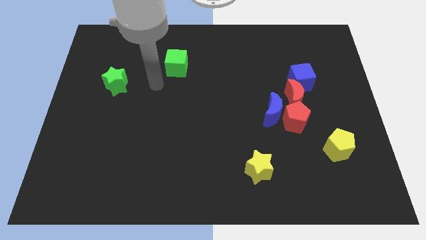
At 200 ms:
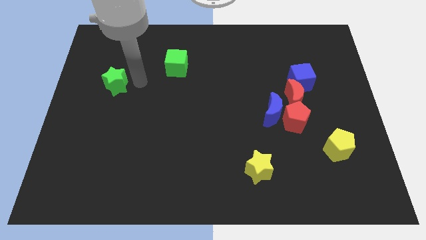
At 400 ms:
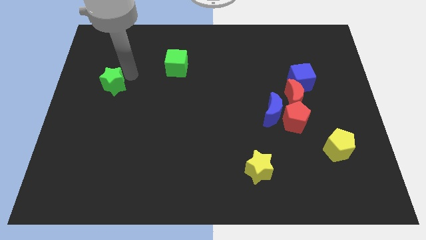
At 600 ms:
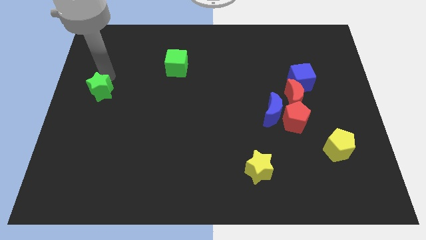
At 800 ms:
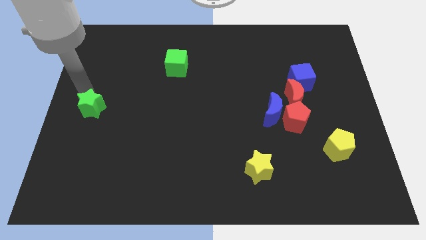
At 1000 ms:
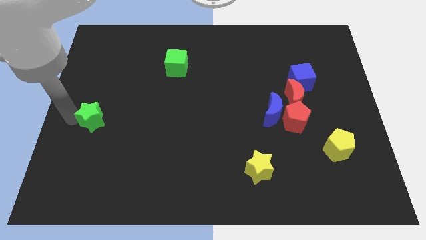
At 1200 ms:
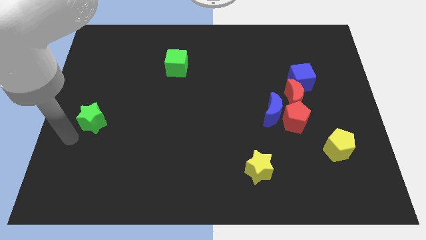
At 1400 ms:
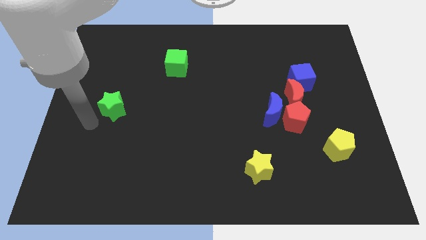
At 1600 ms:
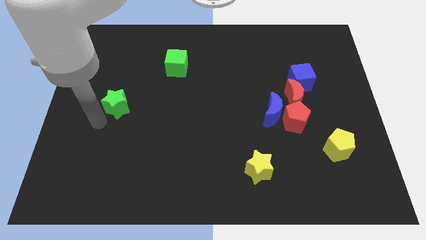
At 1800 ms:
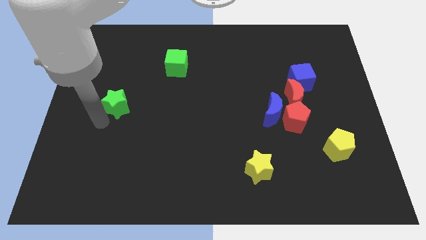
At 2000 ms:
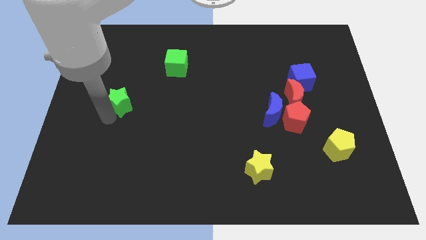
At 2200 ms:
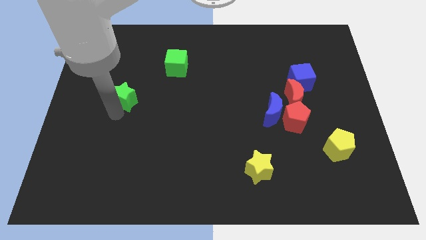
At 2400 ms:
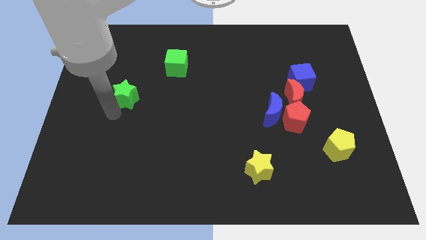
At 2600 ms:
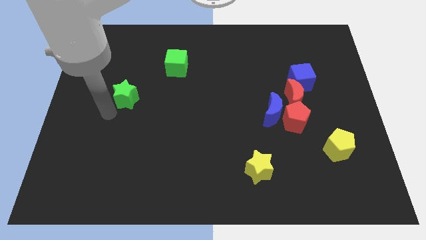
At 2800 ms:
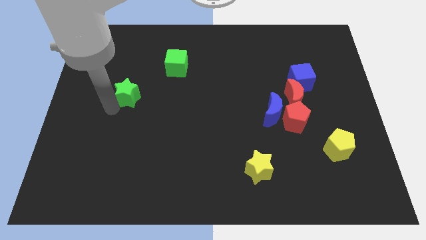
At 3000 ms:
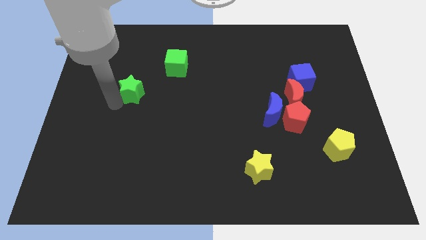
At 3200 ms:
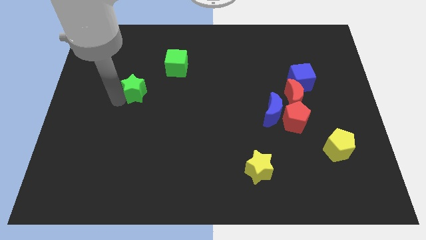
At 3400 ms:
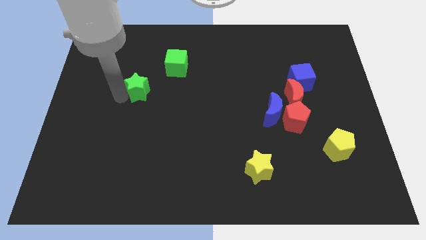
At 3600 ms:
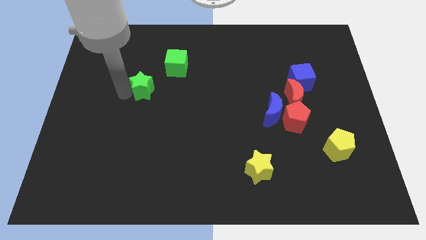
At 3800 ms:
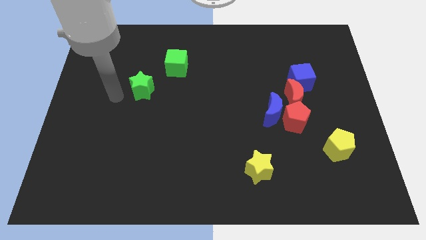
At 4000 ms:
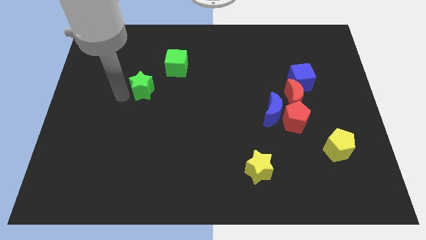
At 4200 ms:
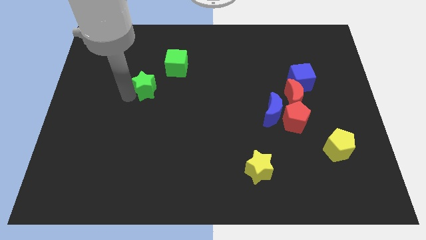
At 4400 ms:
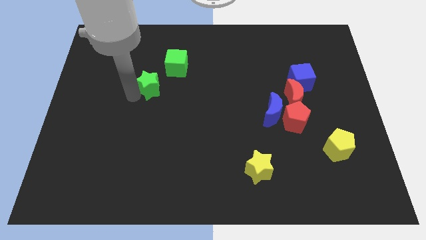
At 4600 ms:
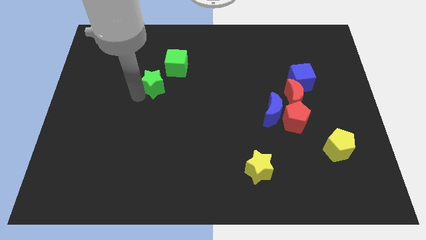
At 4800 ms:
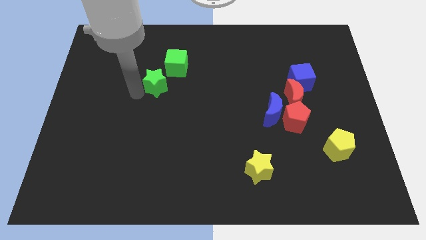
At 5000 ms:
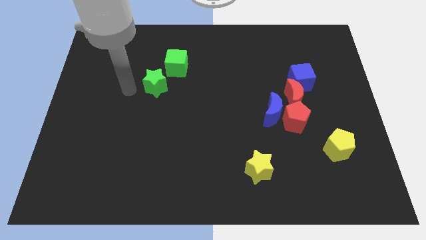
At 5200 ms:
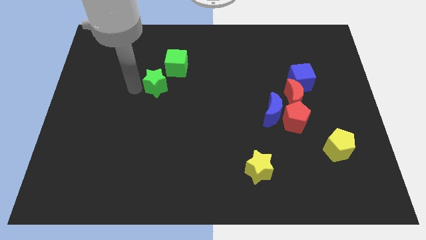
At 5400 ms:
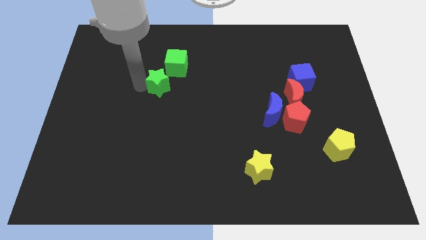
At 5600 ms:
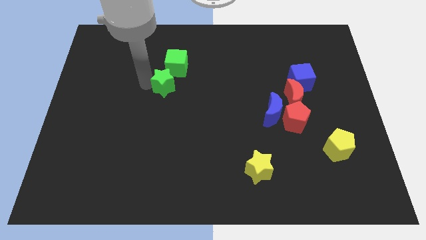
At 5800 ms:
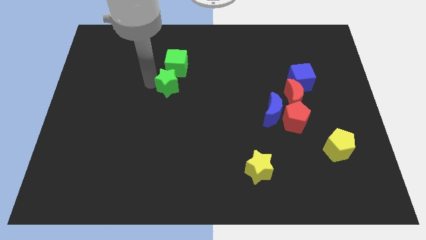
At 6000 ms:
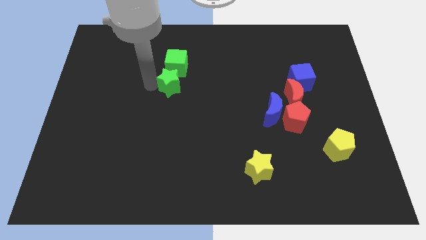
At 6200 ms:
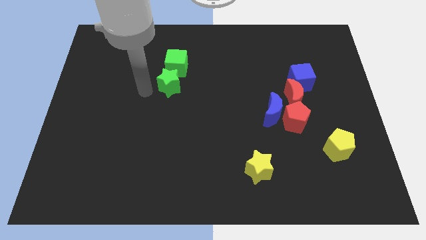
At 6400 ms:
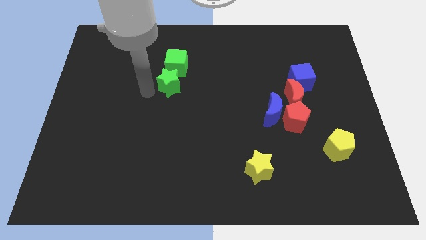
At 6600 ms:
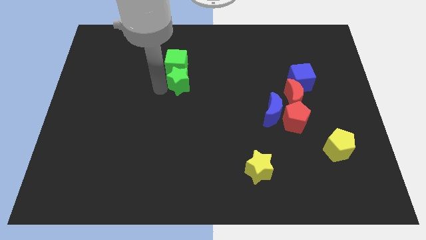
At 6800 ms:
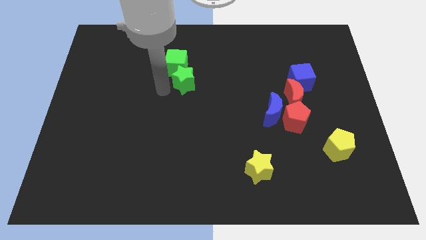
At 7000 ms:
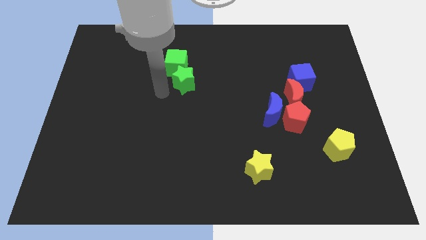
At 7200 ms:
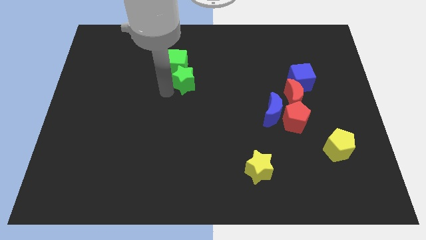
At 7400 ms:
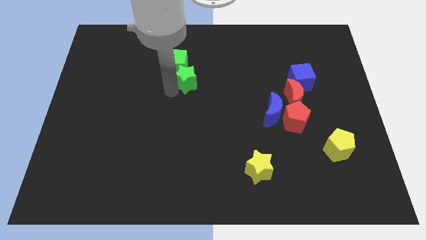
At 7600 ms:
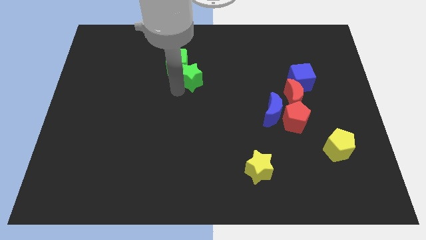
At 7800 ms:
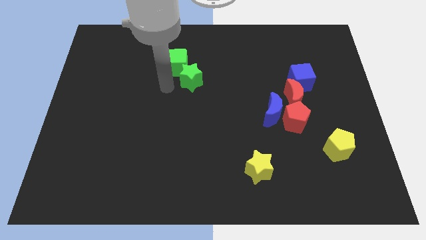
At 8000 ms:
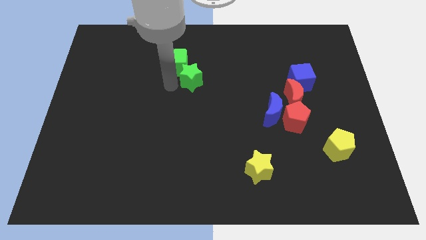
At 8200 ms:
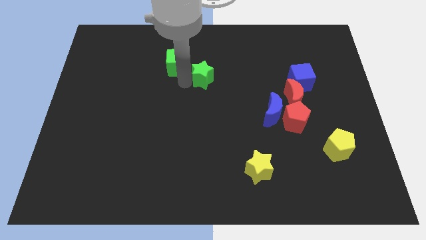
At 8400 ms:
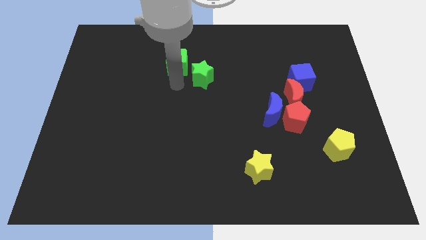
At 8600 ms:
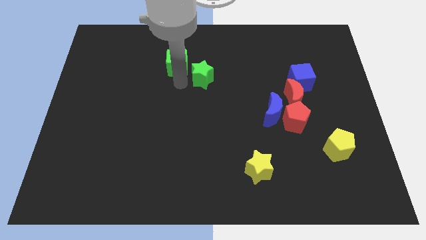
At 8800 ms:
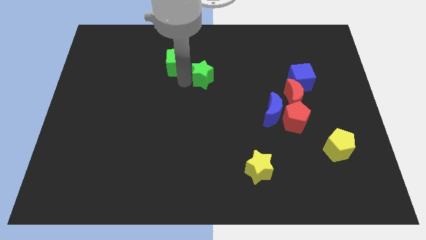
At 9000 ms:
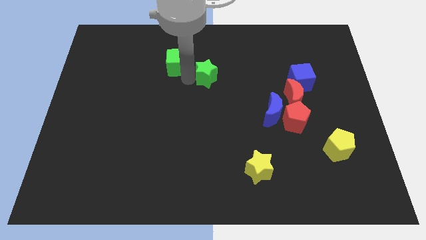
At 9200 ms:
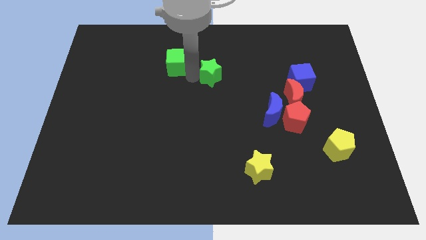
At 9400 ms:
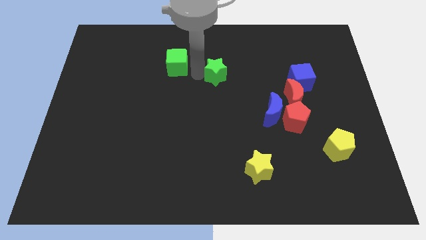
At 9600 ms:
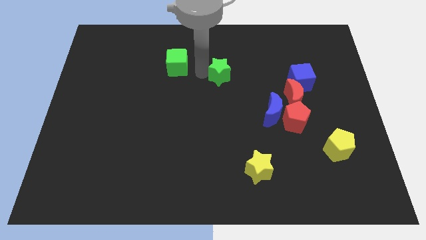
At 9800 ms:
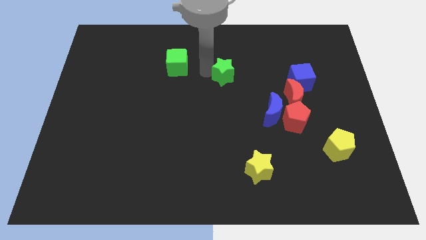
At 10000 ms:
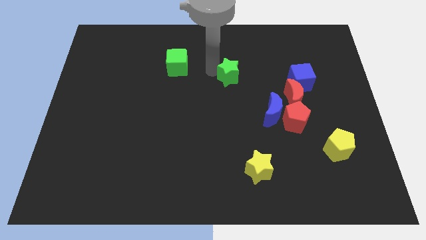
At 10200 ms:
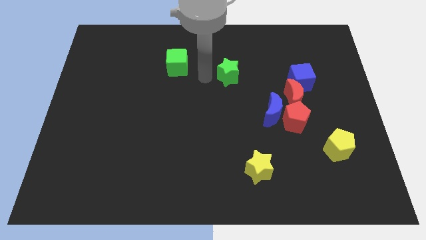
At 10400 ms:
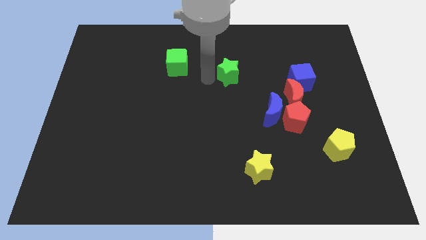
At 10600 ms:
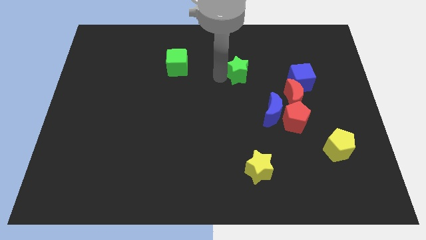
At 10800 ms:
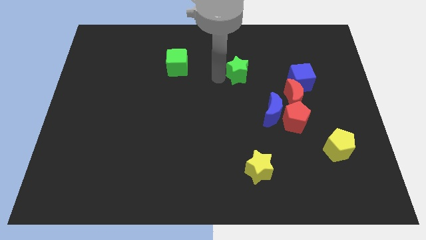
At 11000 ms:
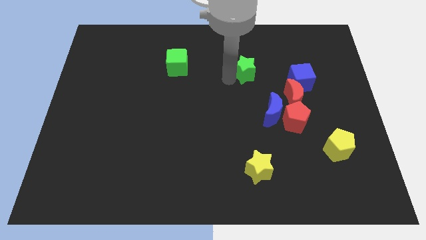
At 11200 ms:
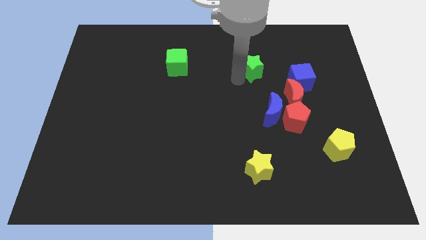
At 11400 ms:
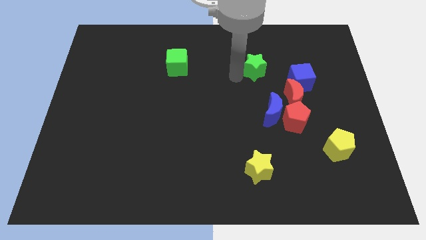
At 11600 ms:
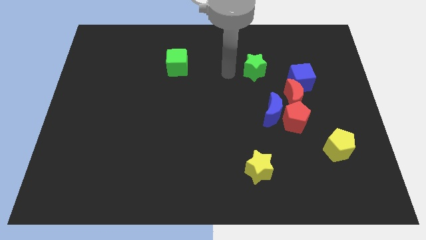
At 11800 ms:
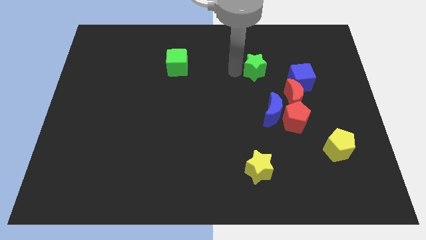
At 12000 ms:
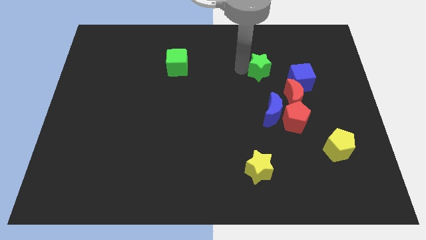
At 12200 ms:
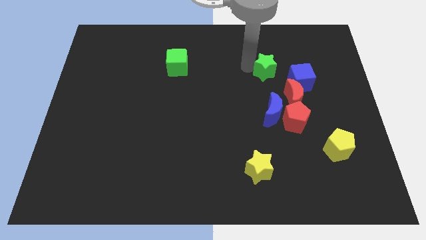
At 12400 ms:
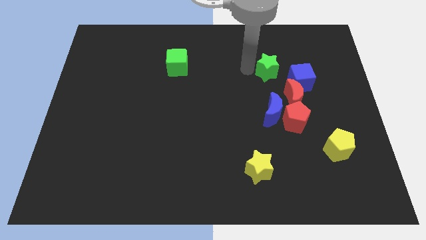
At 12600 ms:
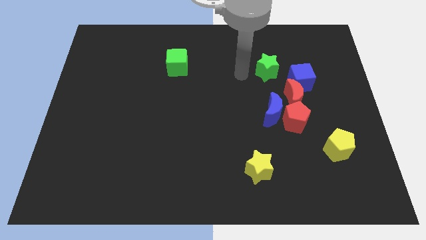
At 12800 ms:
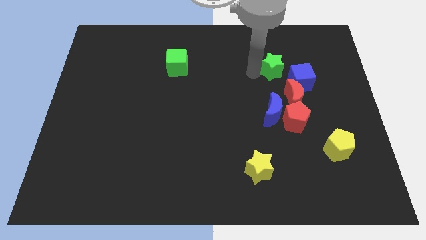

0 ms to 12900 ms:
move the green star to the top of the red moon

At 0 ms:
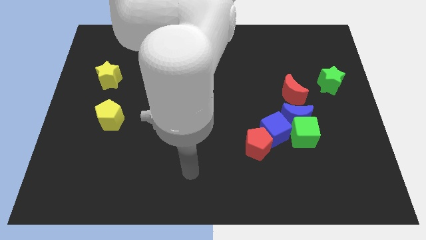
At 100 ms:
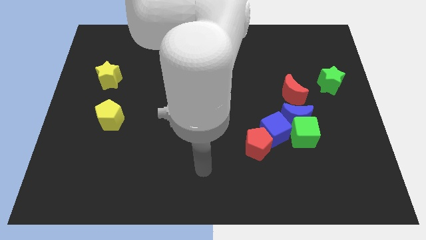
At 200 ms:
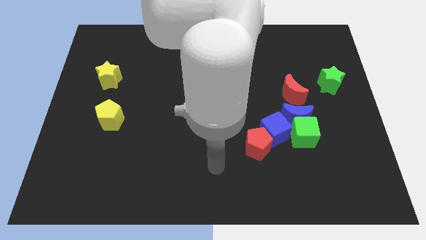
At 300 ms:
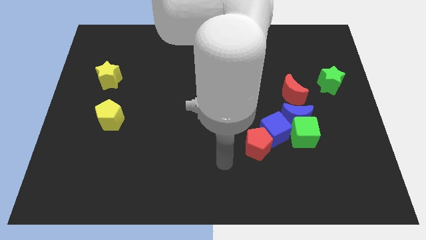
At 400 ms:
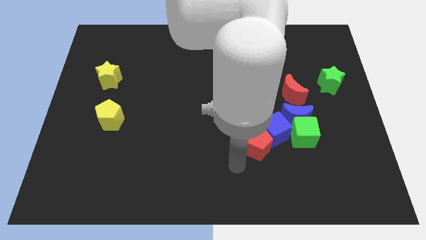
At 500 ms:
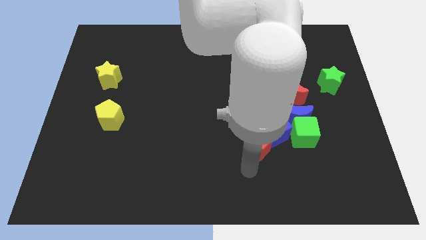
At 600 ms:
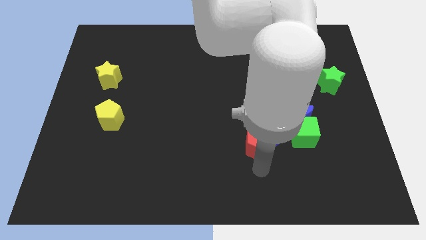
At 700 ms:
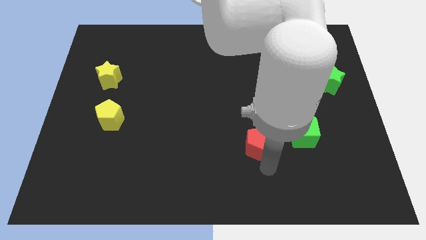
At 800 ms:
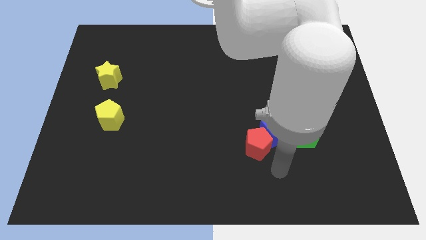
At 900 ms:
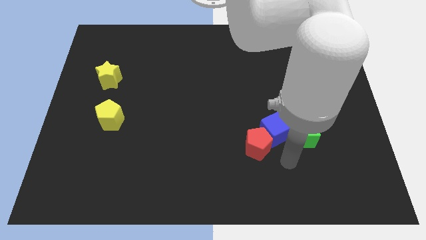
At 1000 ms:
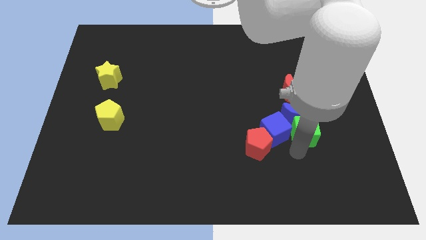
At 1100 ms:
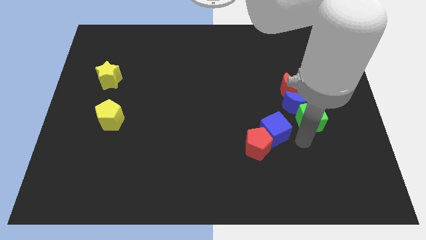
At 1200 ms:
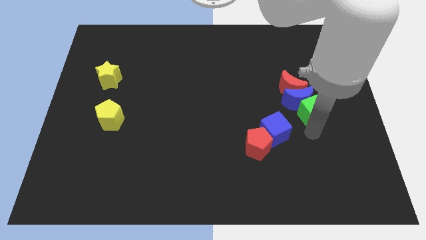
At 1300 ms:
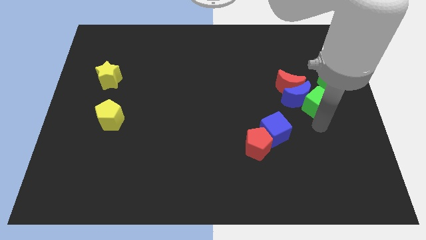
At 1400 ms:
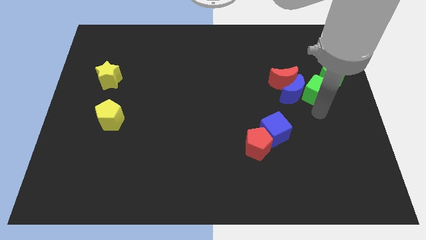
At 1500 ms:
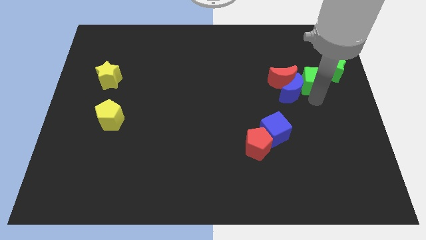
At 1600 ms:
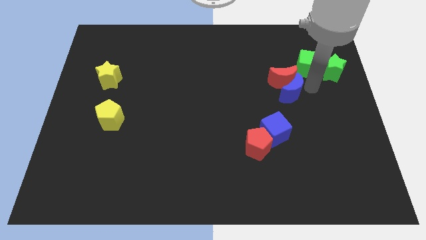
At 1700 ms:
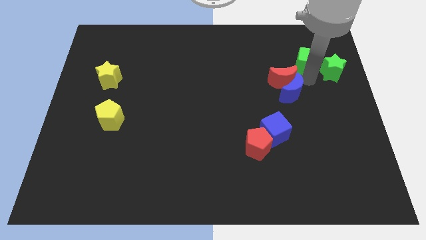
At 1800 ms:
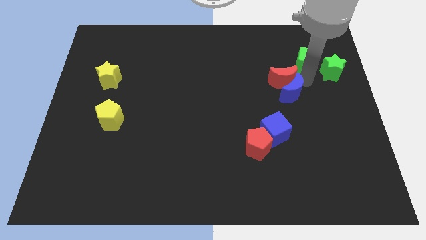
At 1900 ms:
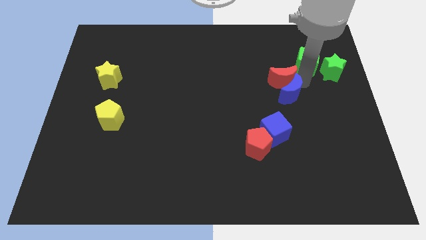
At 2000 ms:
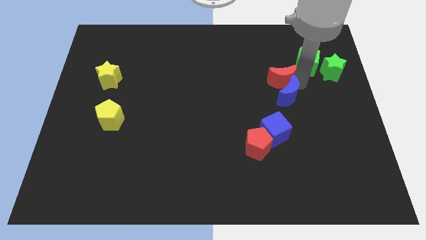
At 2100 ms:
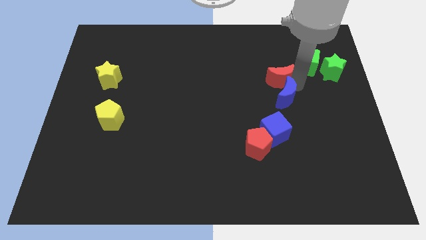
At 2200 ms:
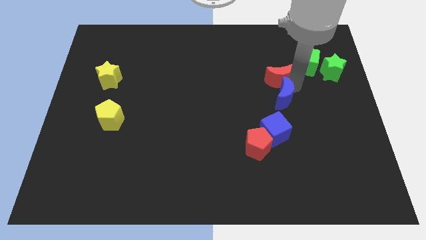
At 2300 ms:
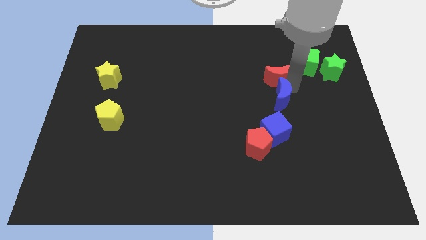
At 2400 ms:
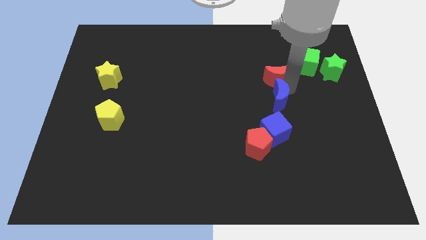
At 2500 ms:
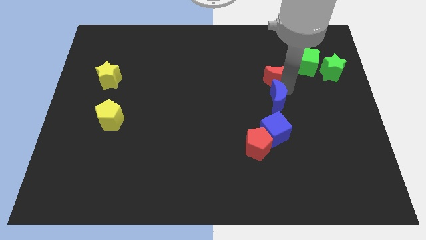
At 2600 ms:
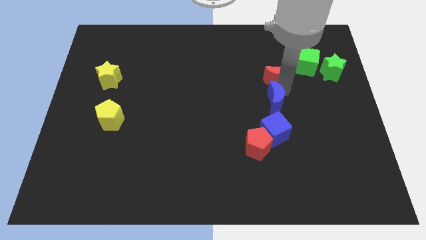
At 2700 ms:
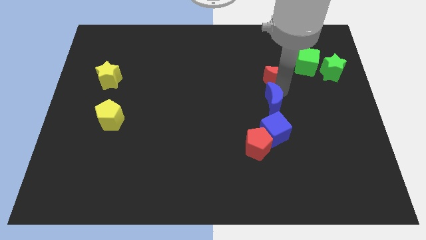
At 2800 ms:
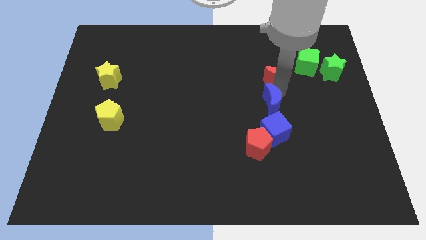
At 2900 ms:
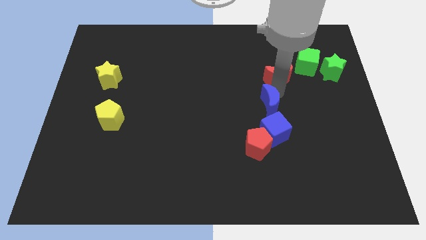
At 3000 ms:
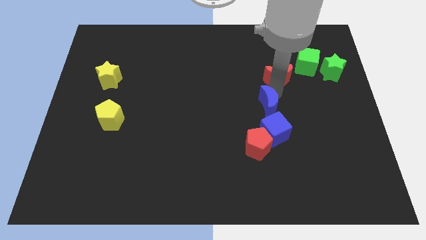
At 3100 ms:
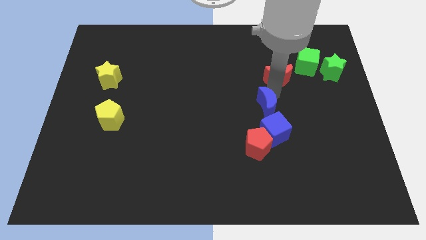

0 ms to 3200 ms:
put the blue moon to the top left of the blue cube
